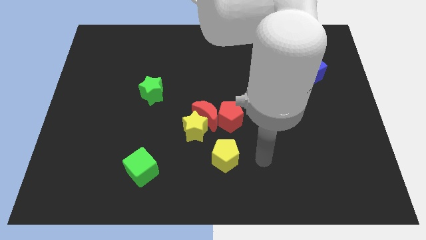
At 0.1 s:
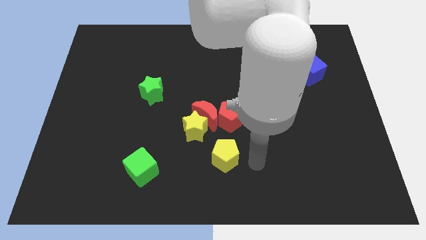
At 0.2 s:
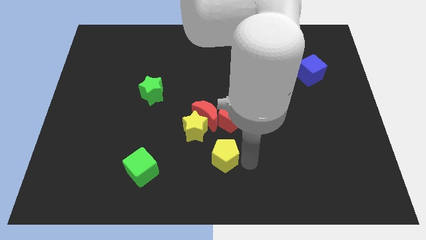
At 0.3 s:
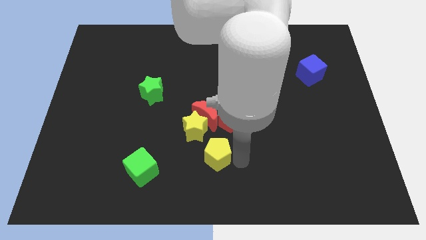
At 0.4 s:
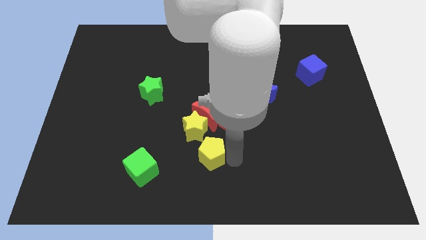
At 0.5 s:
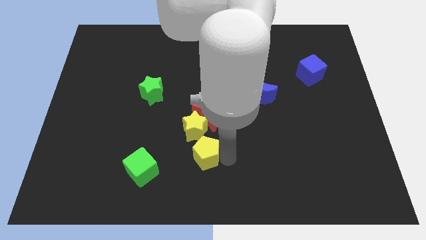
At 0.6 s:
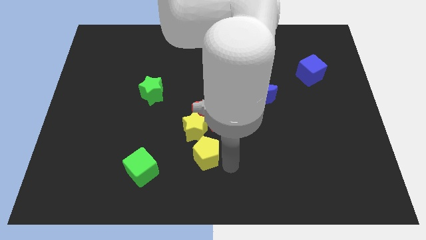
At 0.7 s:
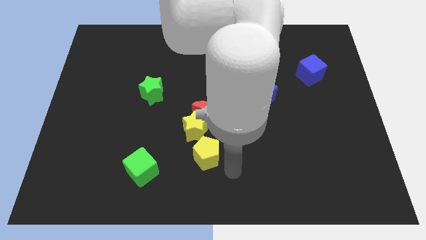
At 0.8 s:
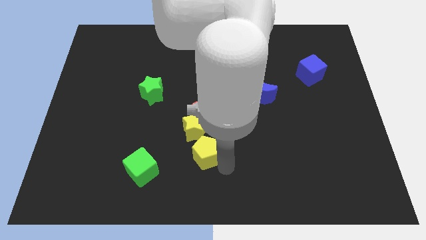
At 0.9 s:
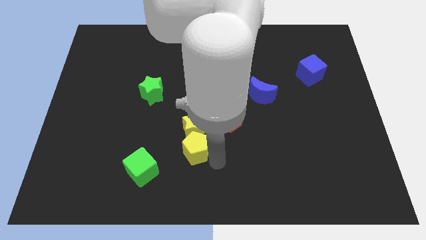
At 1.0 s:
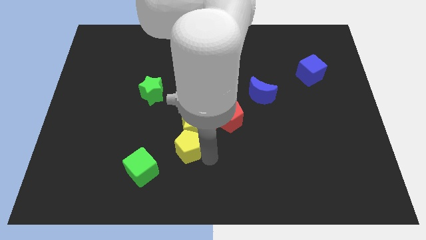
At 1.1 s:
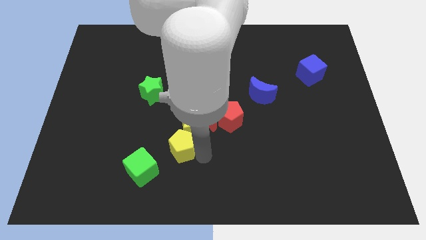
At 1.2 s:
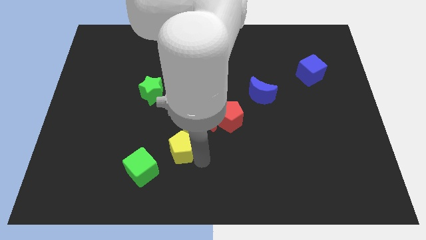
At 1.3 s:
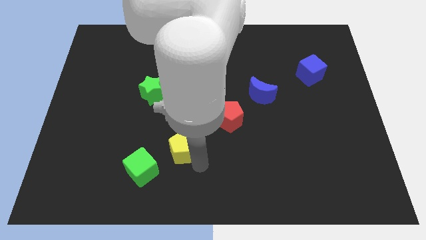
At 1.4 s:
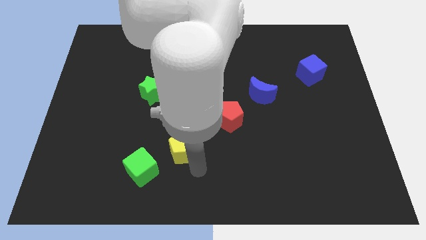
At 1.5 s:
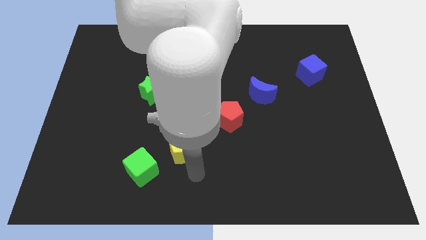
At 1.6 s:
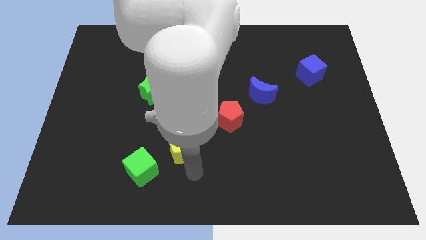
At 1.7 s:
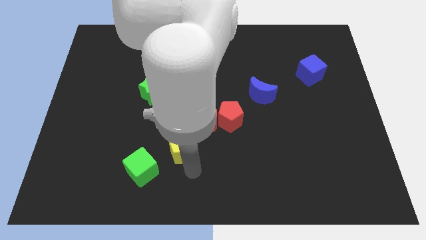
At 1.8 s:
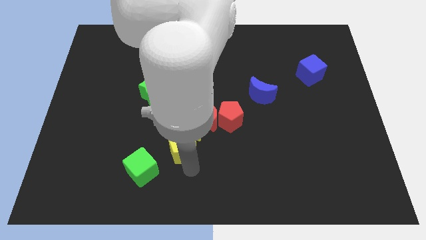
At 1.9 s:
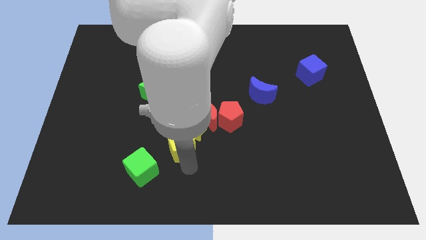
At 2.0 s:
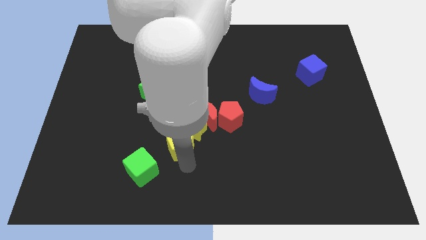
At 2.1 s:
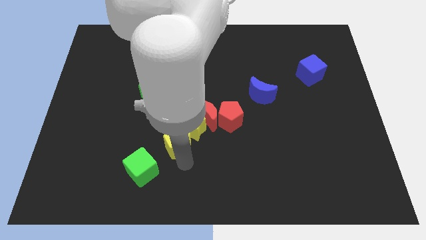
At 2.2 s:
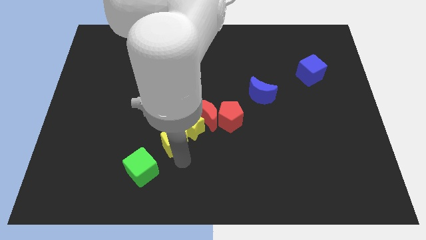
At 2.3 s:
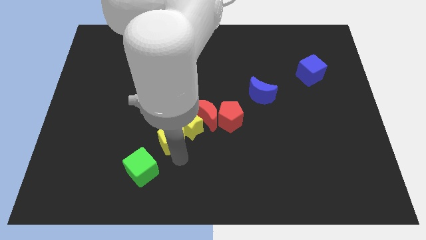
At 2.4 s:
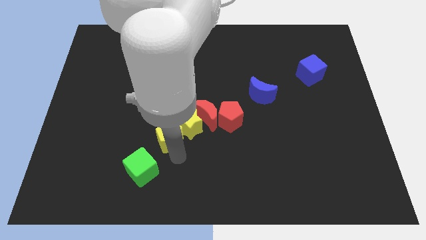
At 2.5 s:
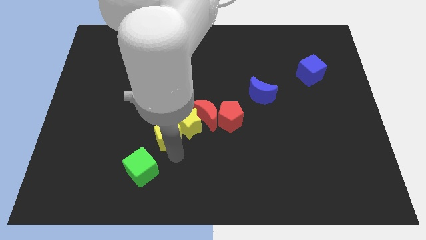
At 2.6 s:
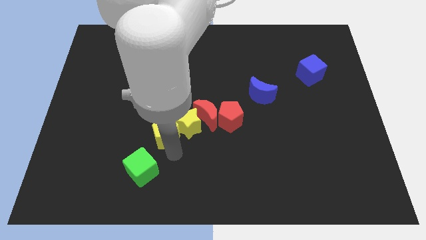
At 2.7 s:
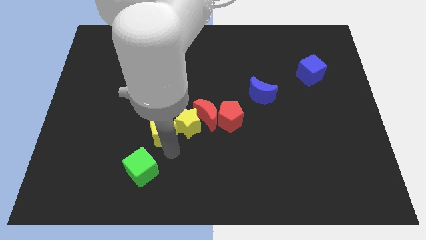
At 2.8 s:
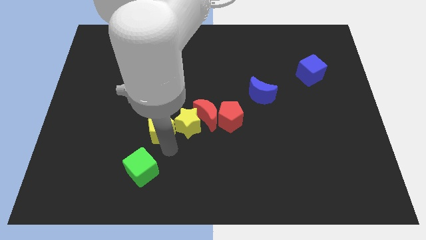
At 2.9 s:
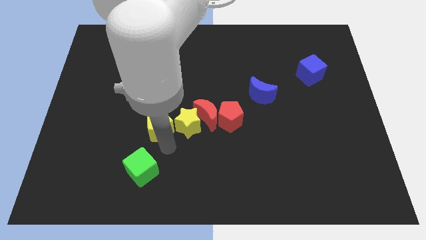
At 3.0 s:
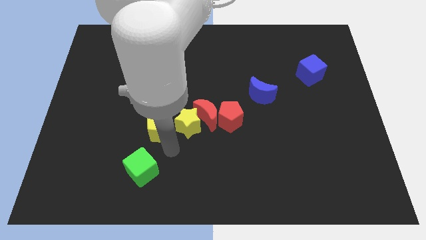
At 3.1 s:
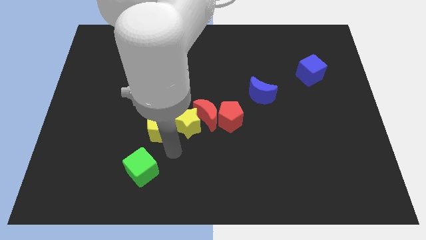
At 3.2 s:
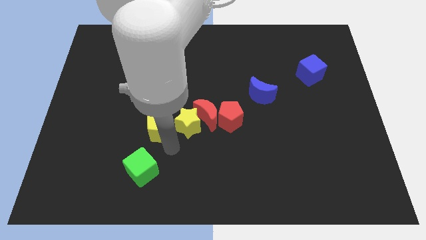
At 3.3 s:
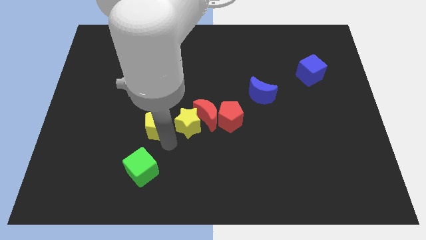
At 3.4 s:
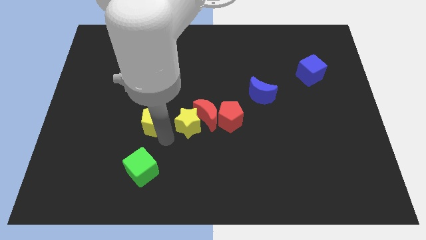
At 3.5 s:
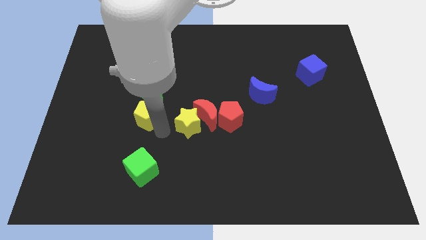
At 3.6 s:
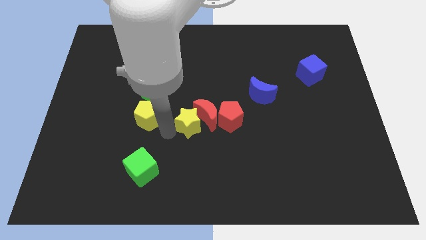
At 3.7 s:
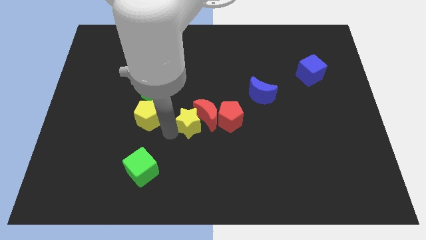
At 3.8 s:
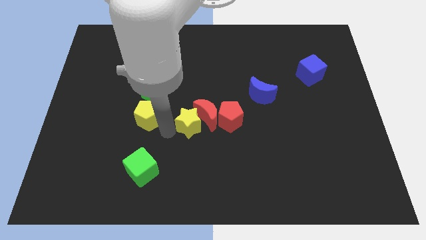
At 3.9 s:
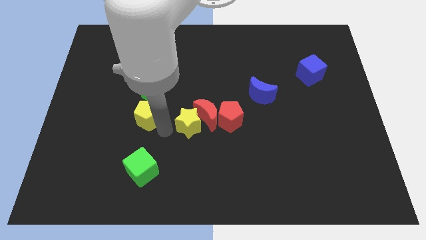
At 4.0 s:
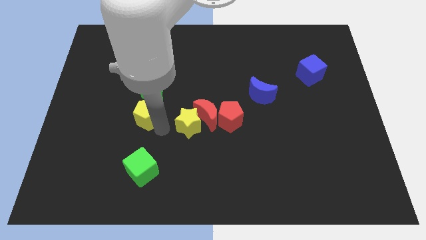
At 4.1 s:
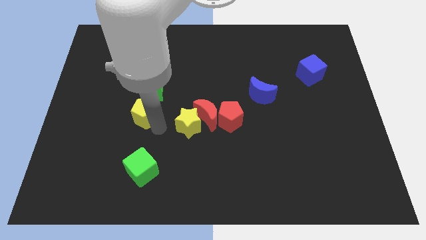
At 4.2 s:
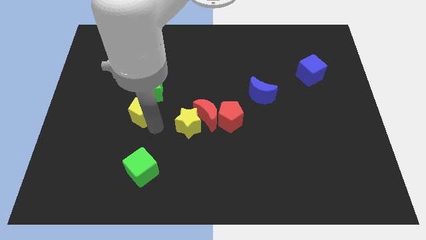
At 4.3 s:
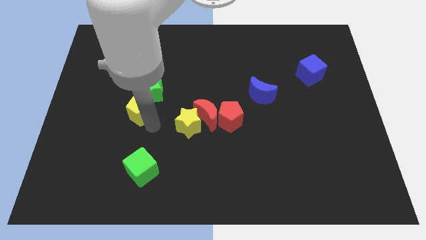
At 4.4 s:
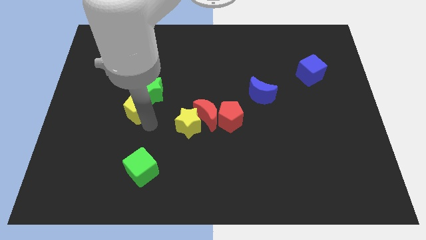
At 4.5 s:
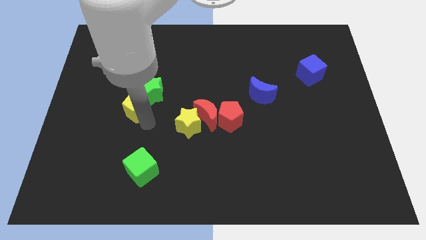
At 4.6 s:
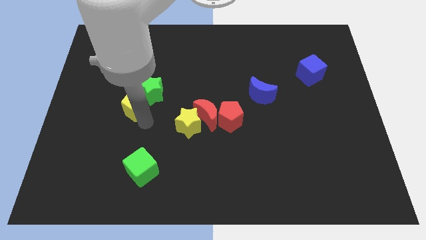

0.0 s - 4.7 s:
move the yellow pentagon to the left side of the green star

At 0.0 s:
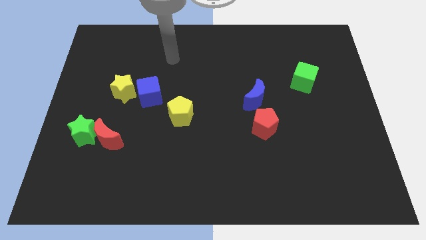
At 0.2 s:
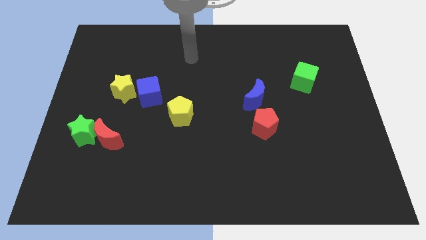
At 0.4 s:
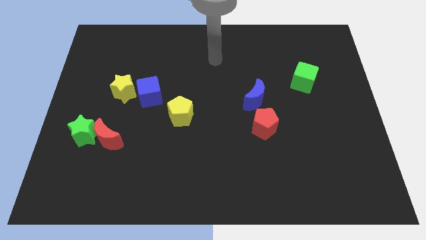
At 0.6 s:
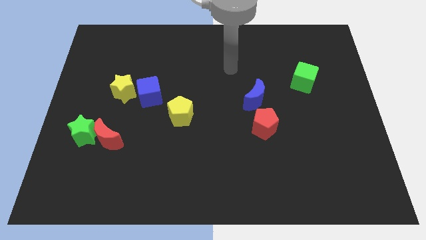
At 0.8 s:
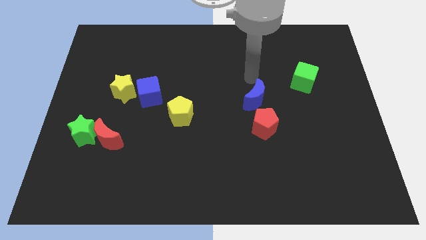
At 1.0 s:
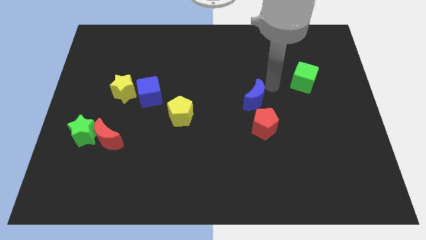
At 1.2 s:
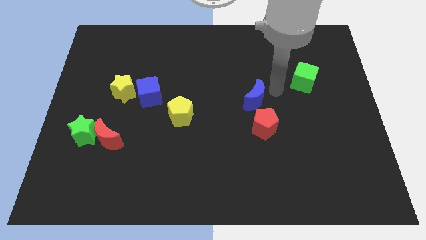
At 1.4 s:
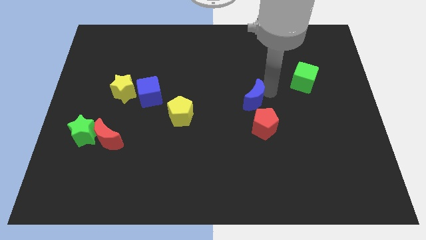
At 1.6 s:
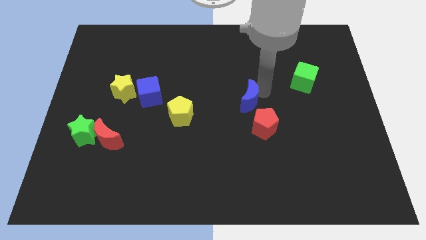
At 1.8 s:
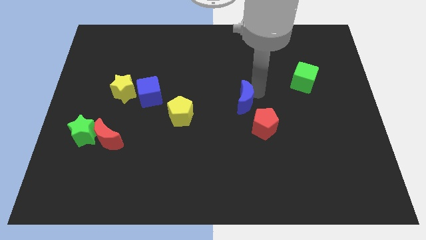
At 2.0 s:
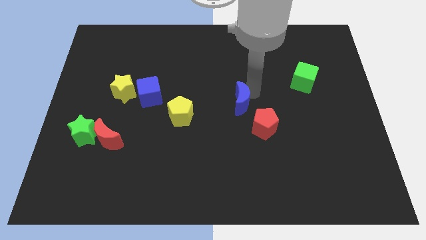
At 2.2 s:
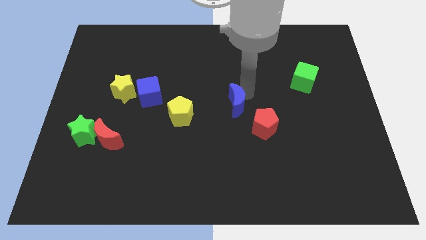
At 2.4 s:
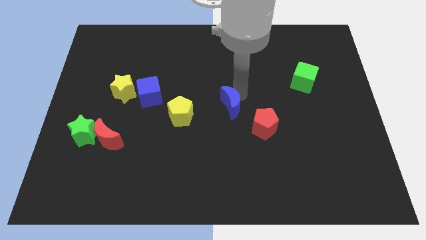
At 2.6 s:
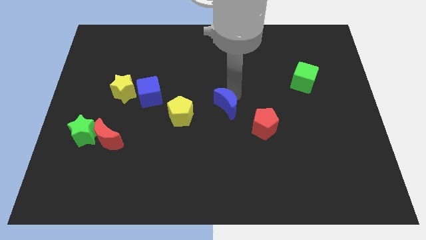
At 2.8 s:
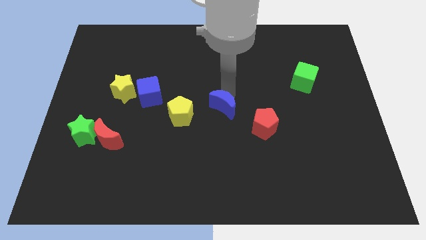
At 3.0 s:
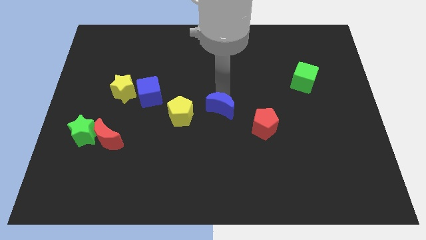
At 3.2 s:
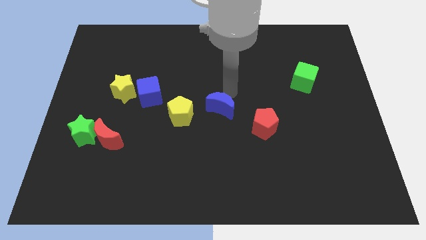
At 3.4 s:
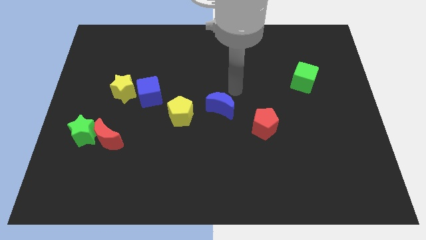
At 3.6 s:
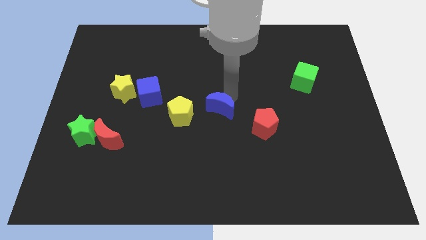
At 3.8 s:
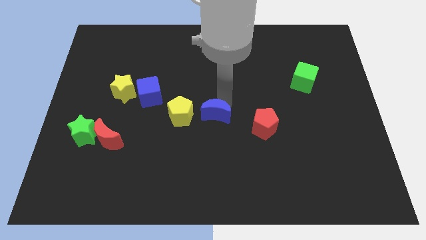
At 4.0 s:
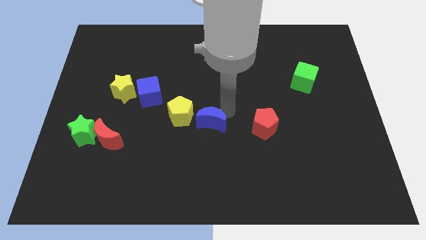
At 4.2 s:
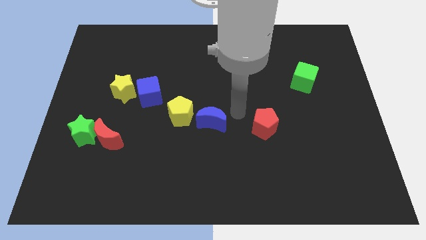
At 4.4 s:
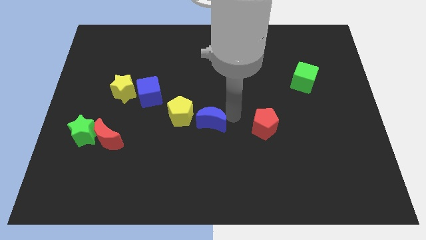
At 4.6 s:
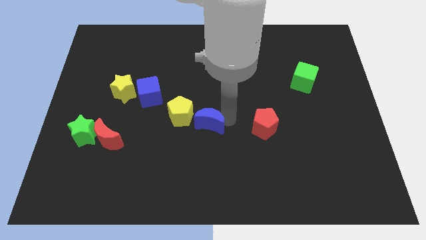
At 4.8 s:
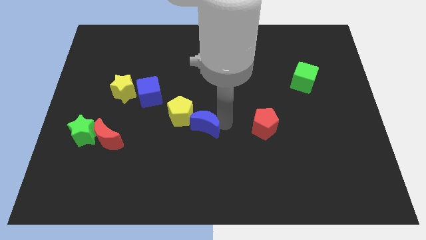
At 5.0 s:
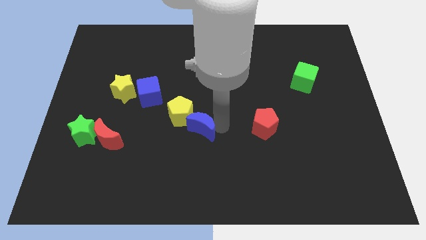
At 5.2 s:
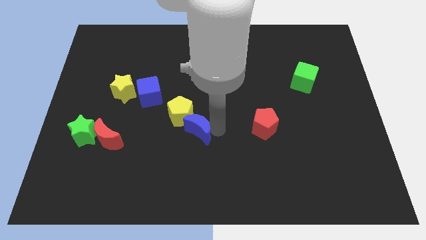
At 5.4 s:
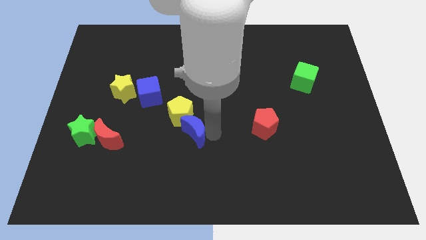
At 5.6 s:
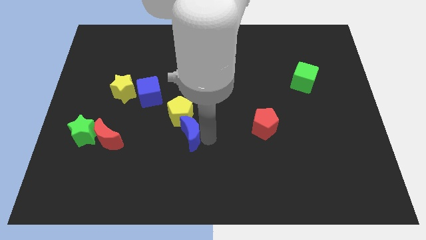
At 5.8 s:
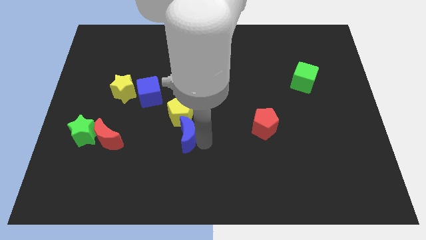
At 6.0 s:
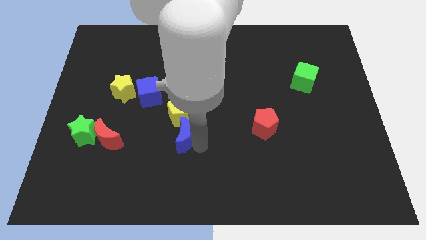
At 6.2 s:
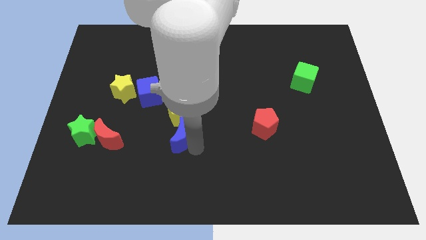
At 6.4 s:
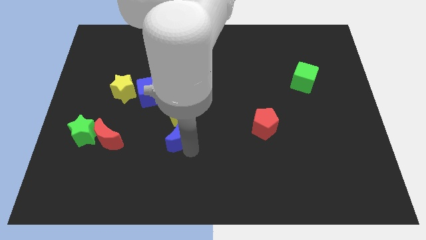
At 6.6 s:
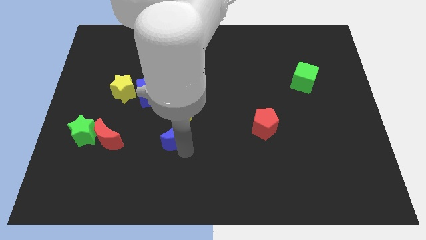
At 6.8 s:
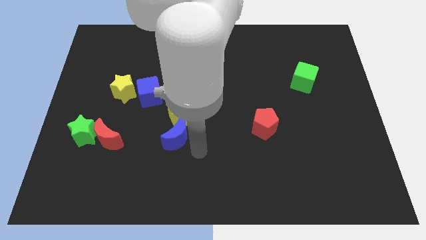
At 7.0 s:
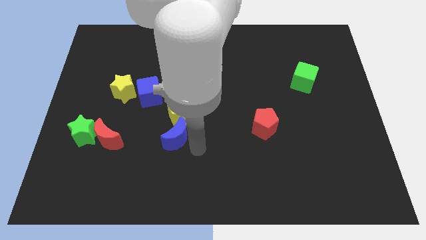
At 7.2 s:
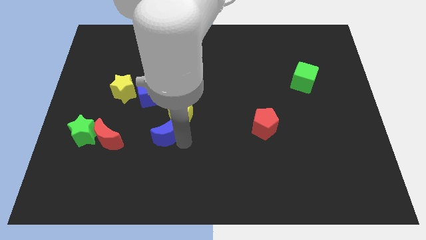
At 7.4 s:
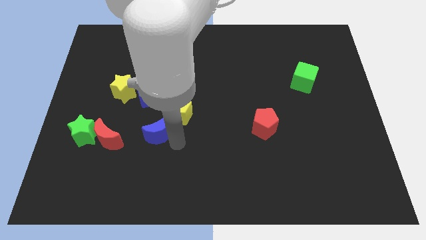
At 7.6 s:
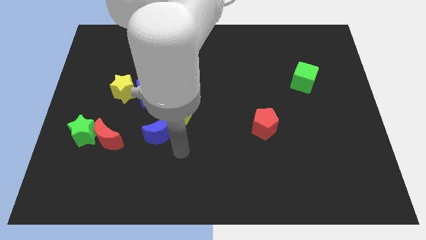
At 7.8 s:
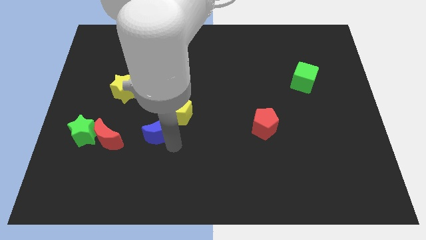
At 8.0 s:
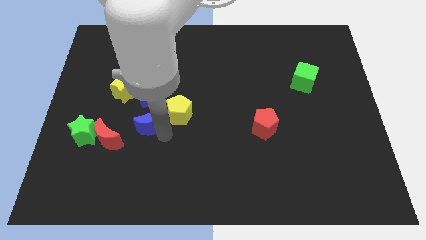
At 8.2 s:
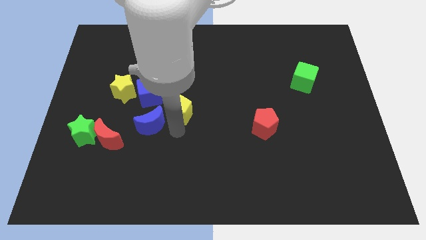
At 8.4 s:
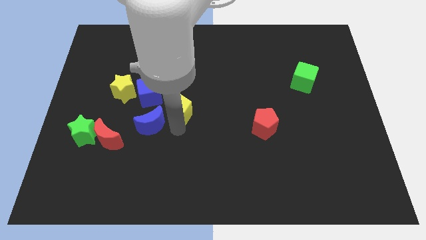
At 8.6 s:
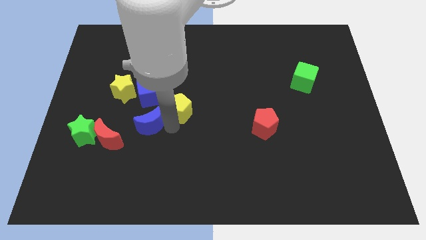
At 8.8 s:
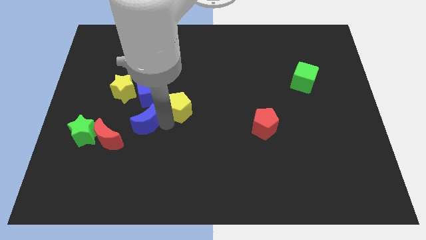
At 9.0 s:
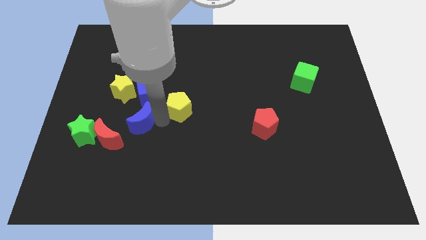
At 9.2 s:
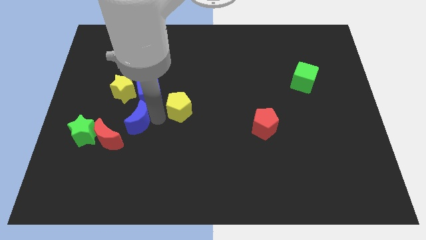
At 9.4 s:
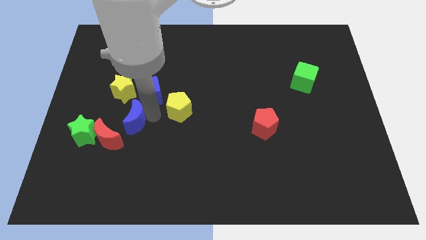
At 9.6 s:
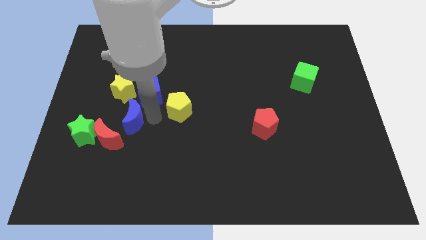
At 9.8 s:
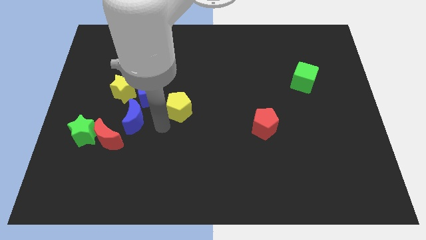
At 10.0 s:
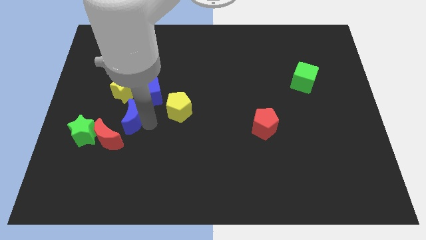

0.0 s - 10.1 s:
put the blue moon to the top right of the green star
